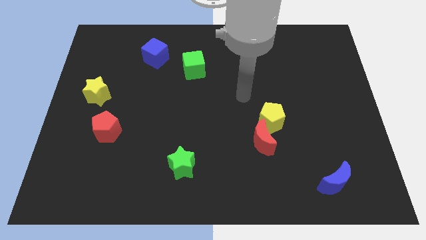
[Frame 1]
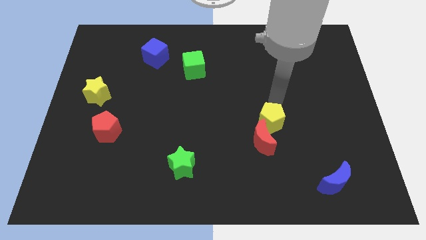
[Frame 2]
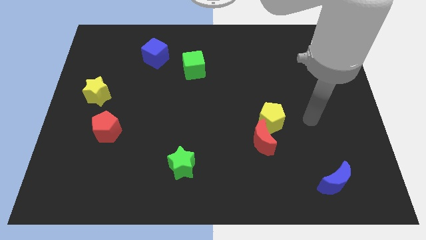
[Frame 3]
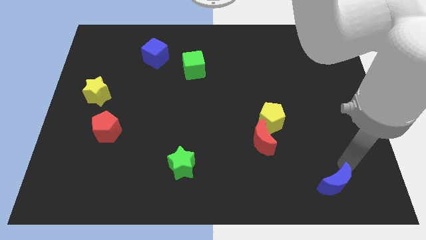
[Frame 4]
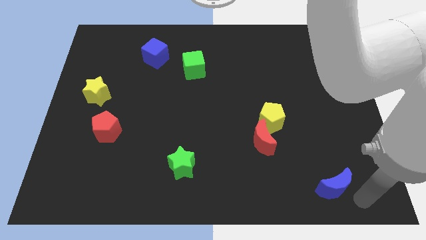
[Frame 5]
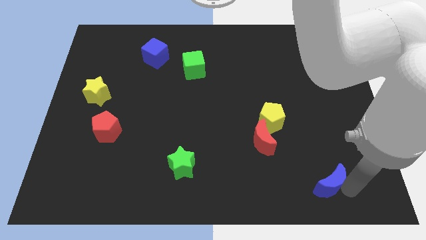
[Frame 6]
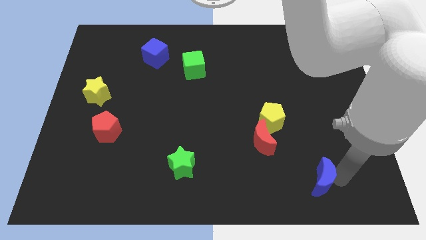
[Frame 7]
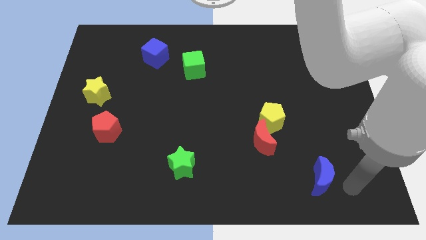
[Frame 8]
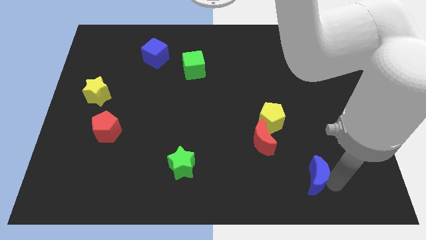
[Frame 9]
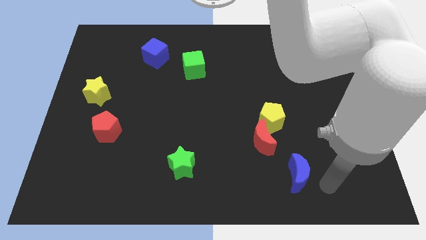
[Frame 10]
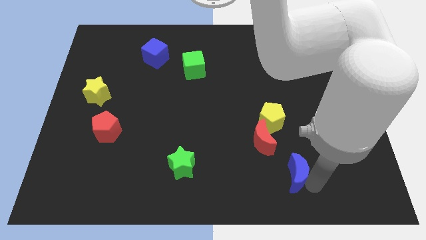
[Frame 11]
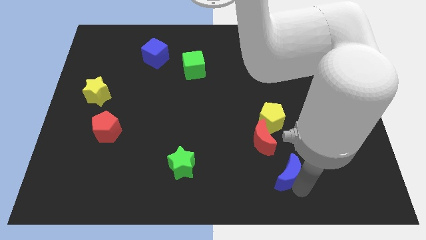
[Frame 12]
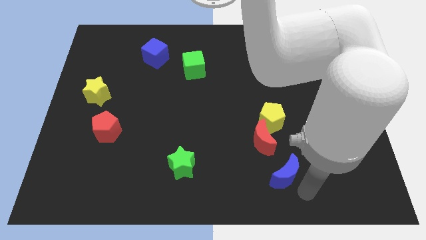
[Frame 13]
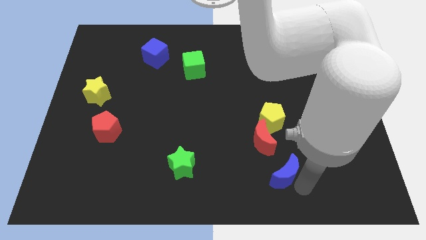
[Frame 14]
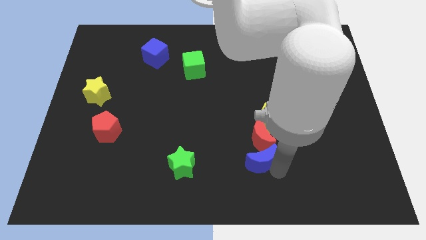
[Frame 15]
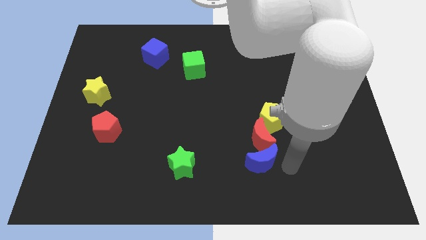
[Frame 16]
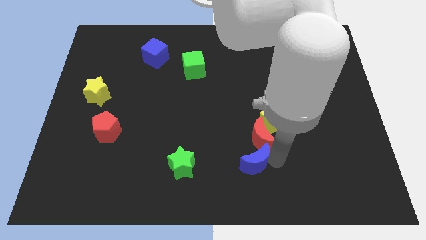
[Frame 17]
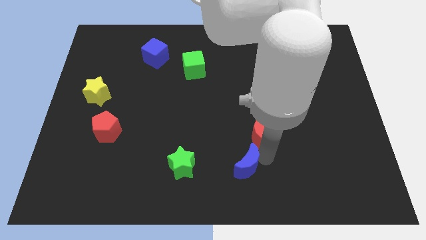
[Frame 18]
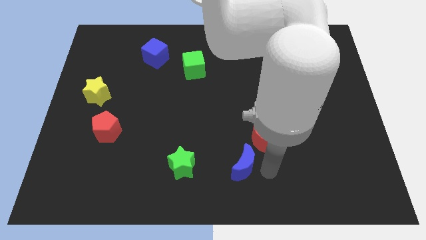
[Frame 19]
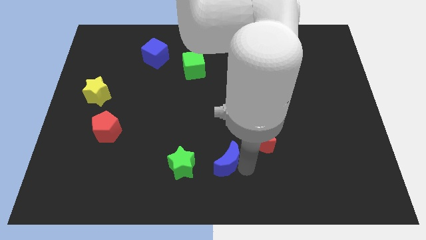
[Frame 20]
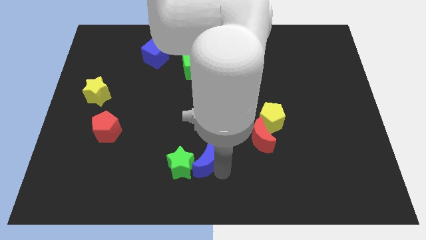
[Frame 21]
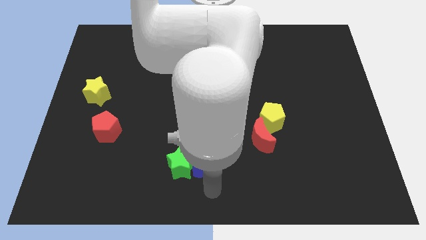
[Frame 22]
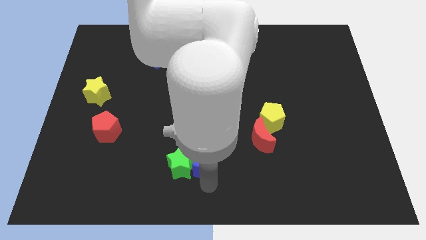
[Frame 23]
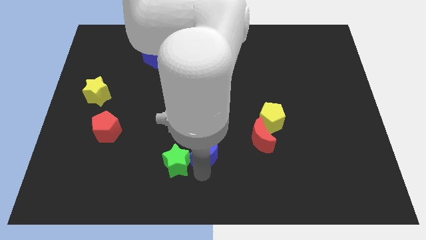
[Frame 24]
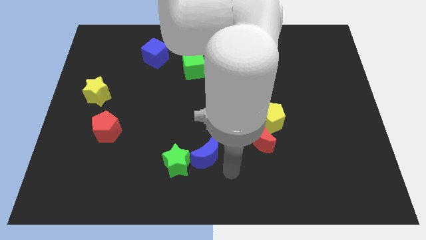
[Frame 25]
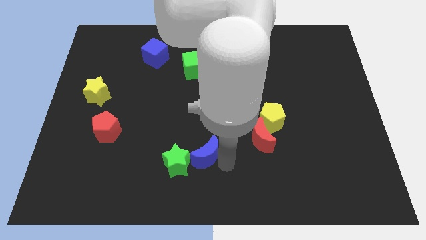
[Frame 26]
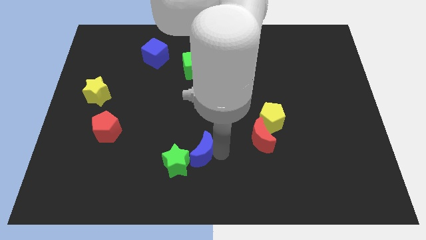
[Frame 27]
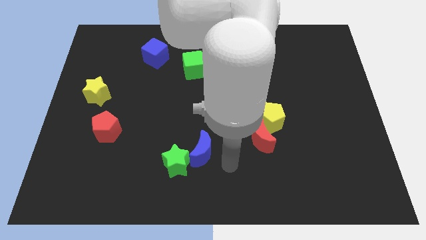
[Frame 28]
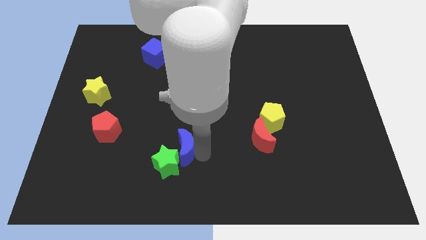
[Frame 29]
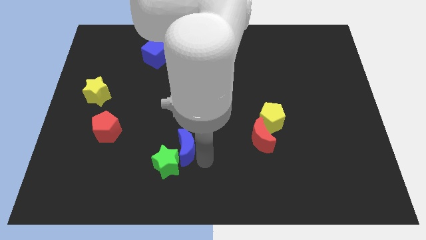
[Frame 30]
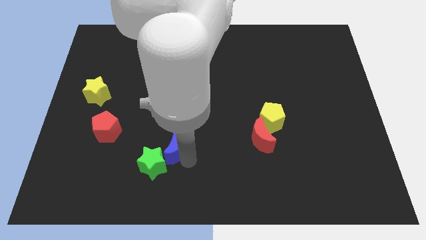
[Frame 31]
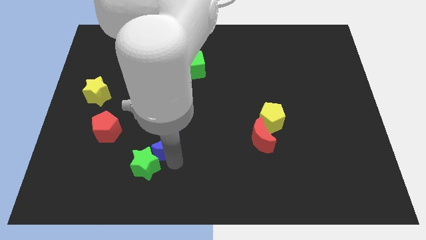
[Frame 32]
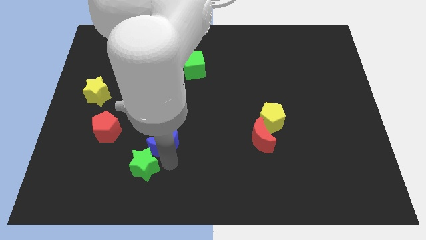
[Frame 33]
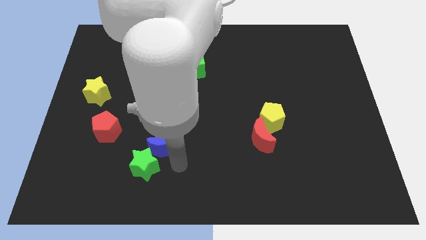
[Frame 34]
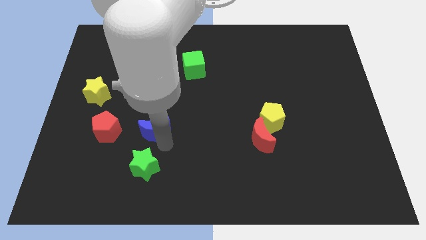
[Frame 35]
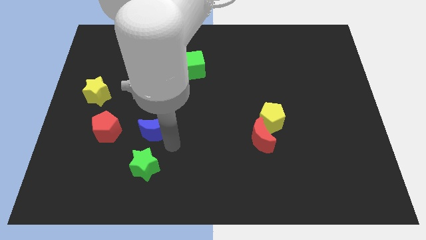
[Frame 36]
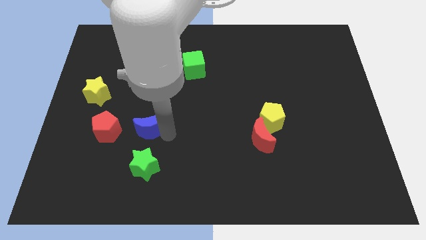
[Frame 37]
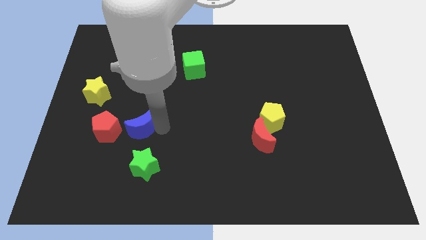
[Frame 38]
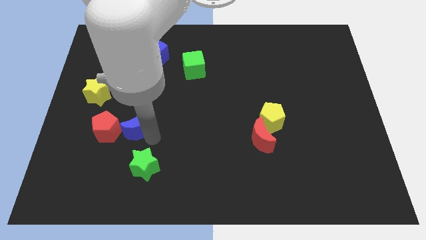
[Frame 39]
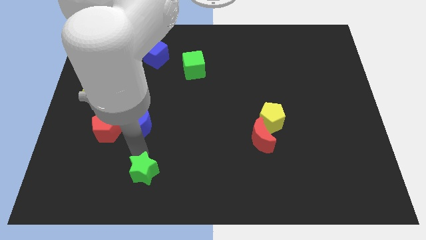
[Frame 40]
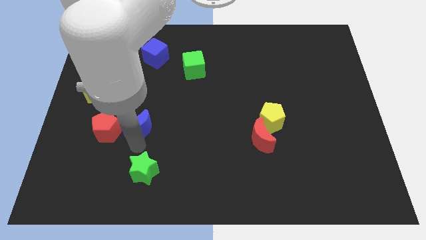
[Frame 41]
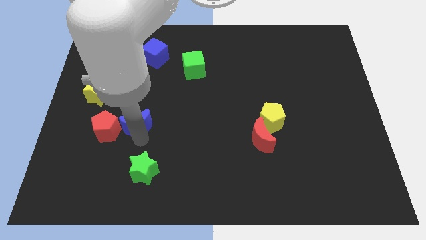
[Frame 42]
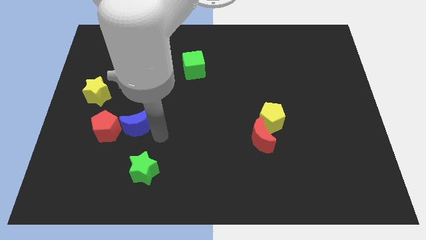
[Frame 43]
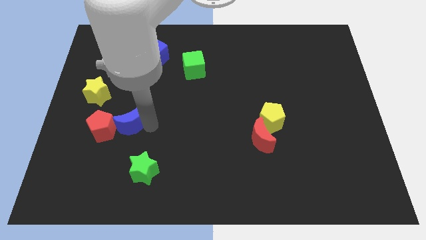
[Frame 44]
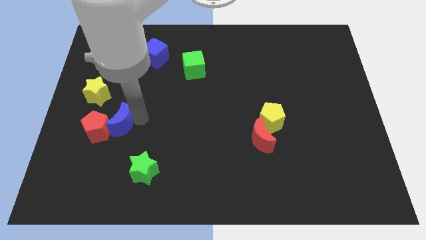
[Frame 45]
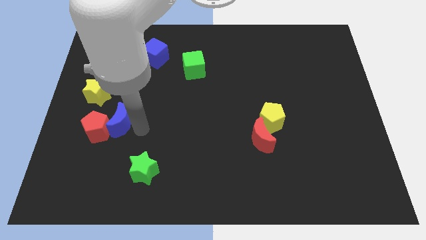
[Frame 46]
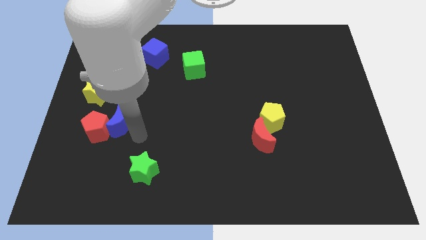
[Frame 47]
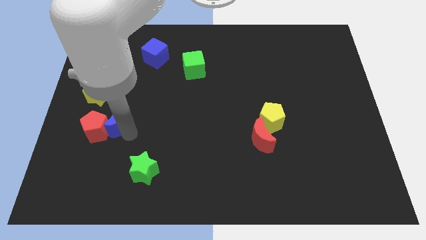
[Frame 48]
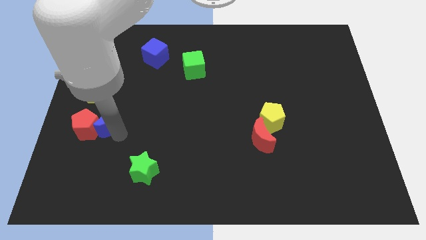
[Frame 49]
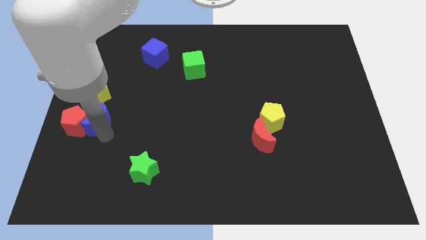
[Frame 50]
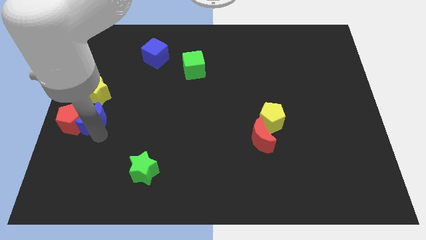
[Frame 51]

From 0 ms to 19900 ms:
slide the blue moon to the center left

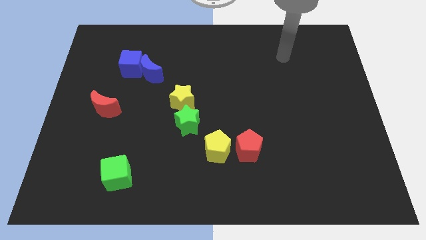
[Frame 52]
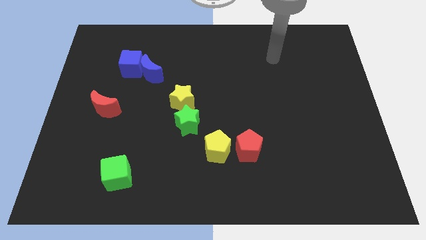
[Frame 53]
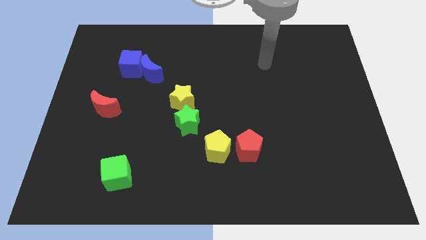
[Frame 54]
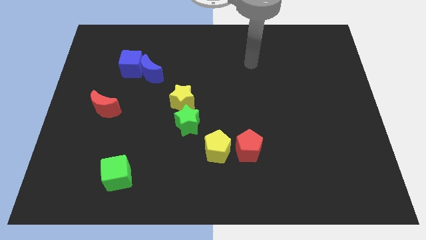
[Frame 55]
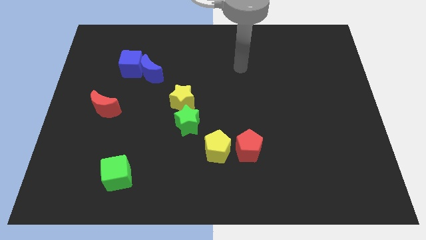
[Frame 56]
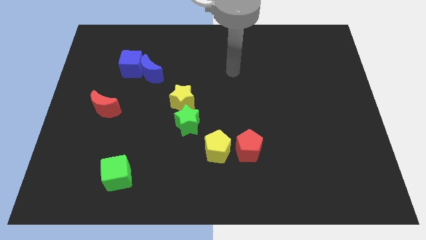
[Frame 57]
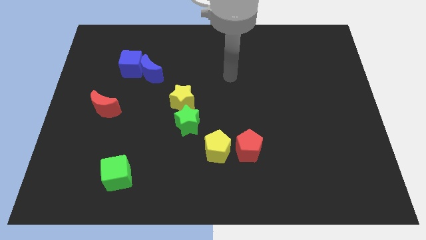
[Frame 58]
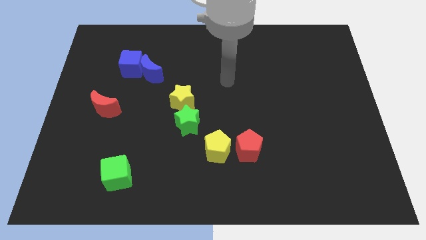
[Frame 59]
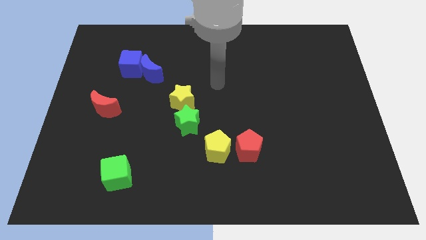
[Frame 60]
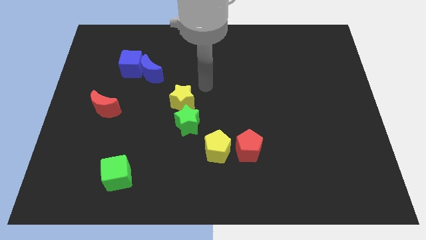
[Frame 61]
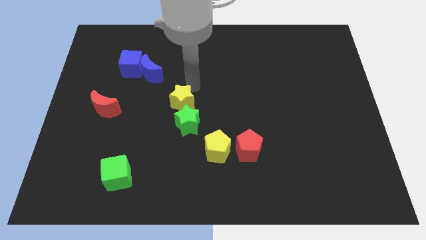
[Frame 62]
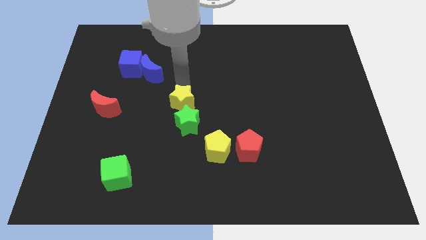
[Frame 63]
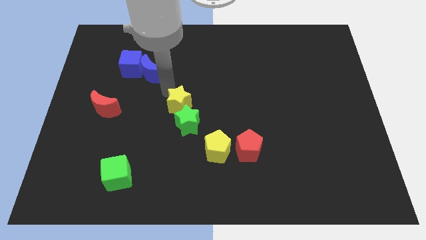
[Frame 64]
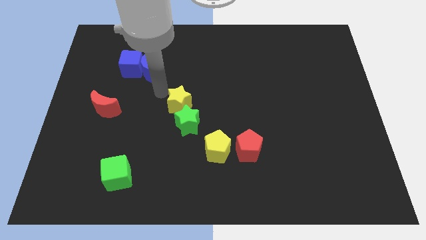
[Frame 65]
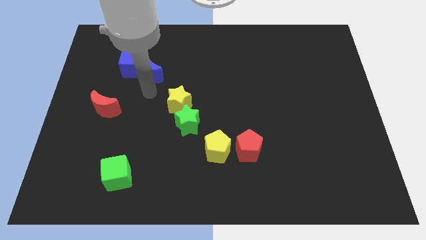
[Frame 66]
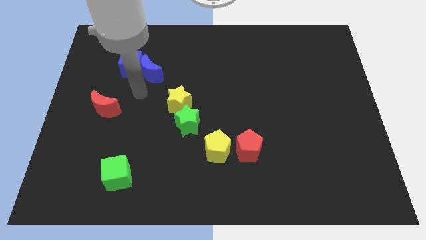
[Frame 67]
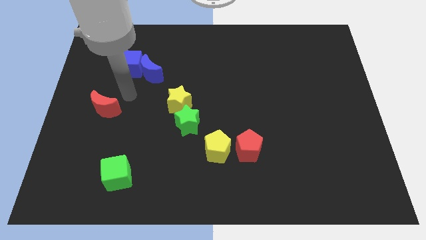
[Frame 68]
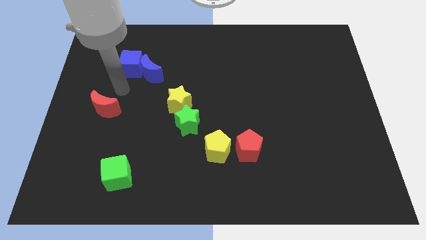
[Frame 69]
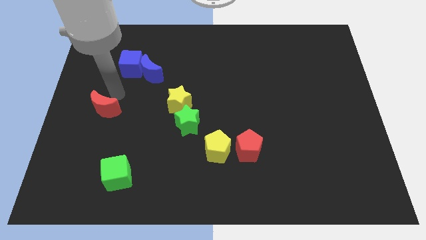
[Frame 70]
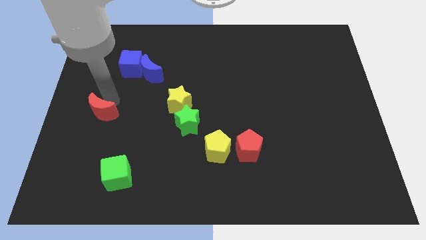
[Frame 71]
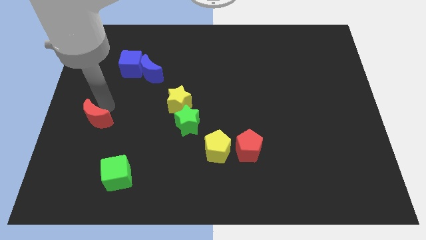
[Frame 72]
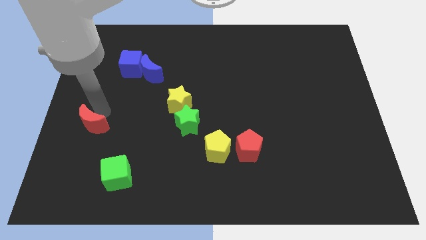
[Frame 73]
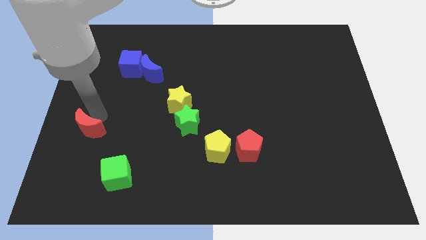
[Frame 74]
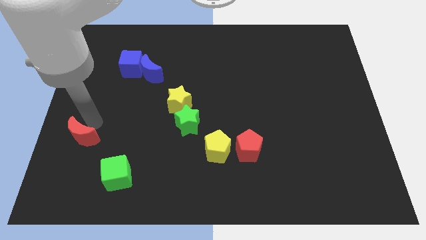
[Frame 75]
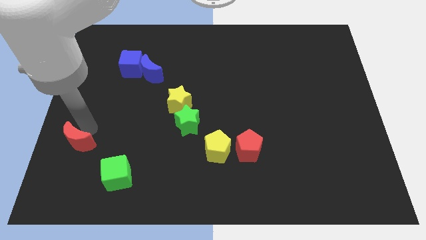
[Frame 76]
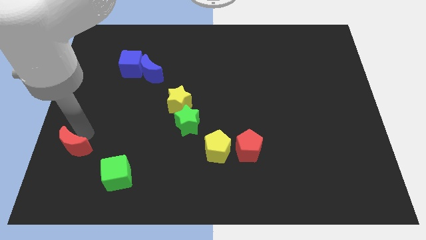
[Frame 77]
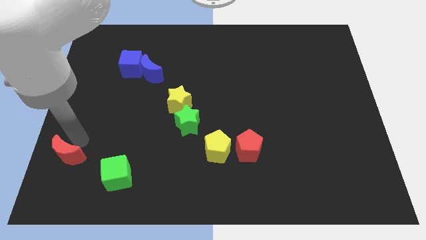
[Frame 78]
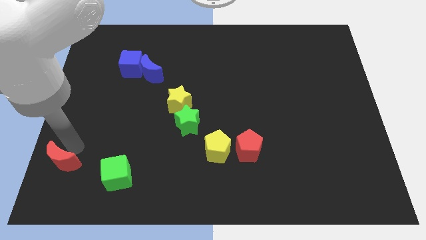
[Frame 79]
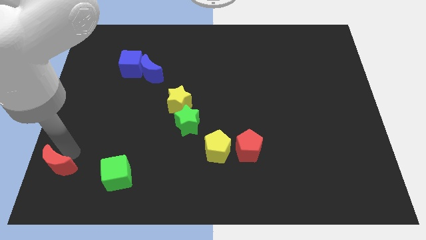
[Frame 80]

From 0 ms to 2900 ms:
slide the red moon to the lower left corner
